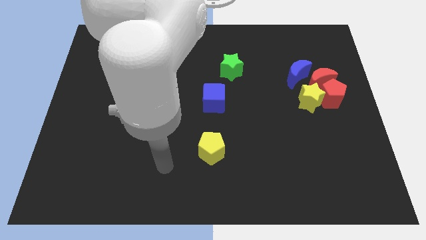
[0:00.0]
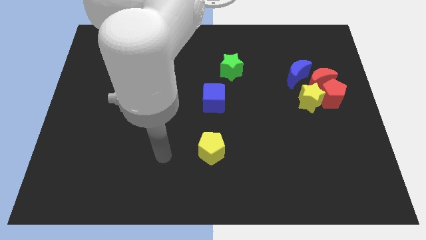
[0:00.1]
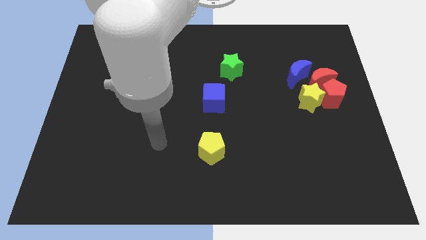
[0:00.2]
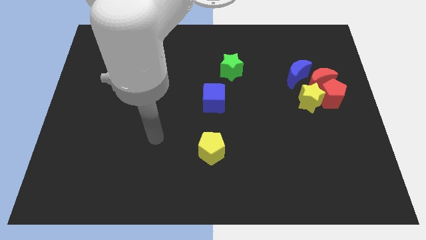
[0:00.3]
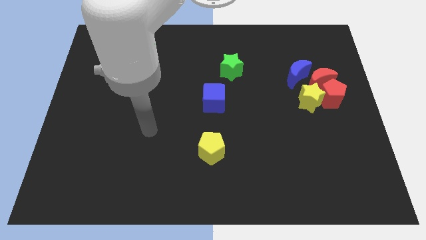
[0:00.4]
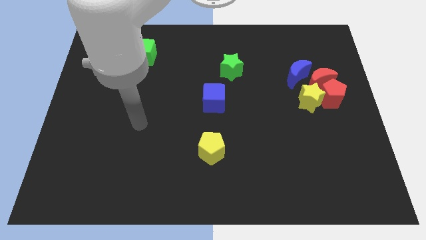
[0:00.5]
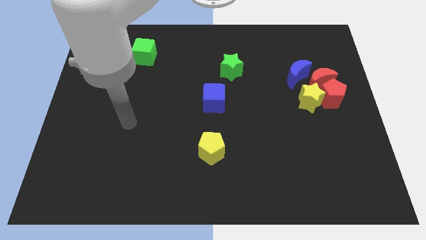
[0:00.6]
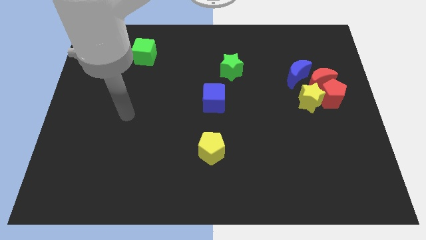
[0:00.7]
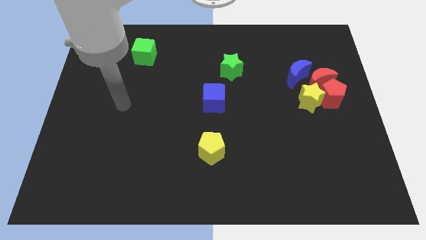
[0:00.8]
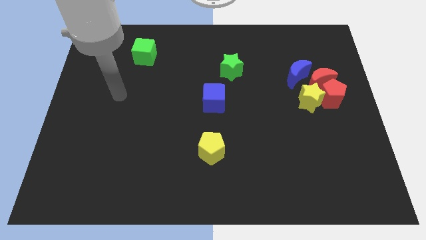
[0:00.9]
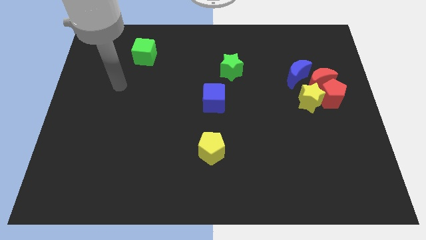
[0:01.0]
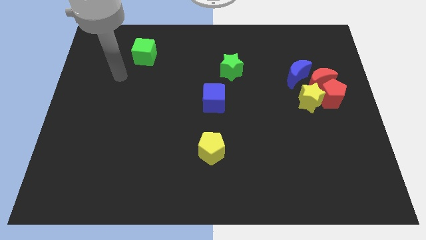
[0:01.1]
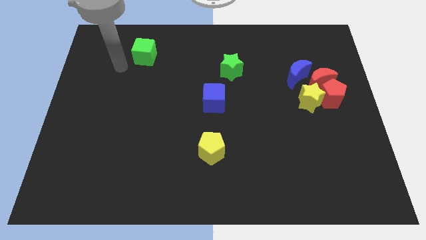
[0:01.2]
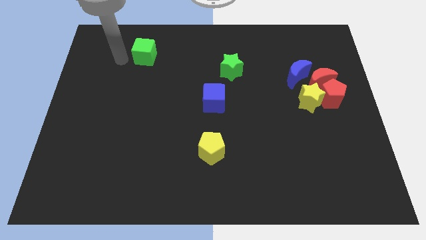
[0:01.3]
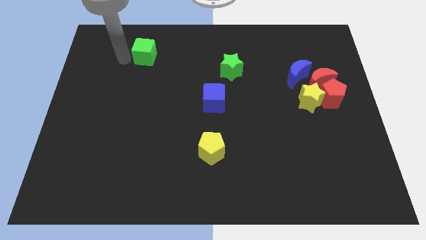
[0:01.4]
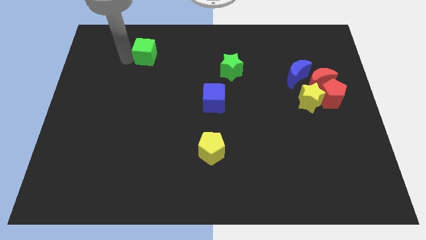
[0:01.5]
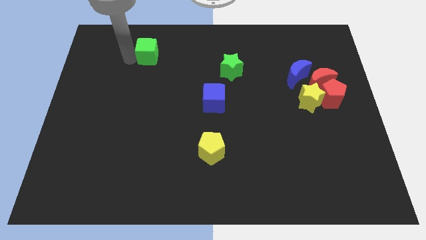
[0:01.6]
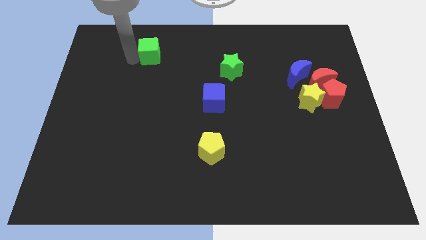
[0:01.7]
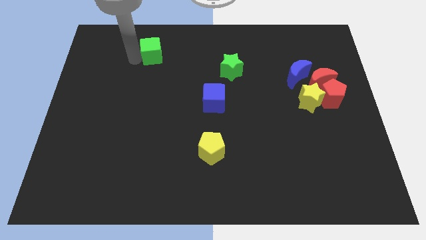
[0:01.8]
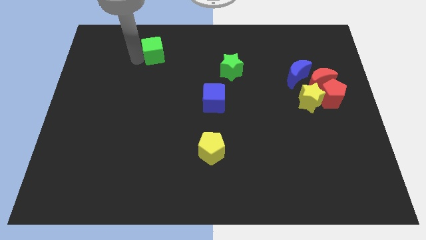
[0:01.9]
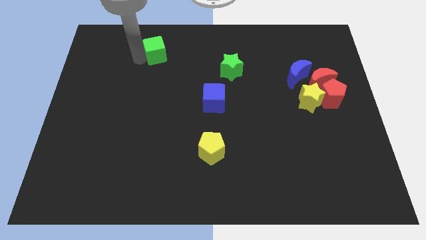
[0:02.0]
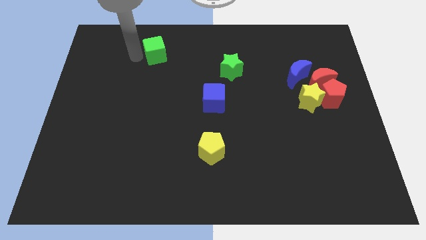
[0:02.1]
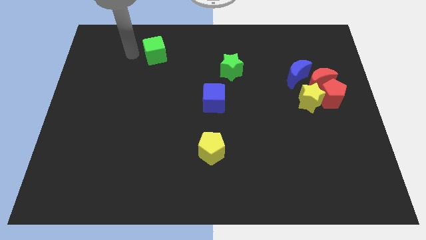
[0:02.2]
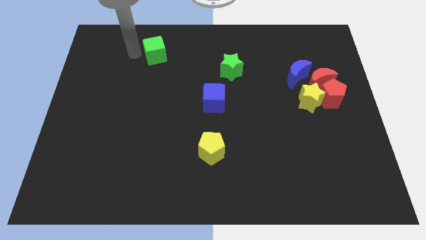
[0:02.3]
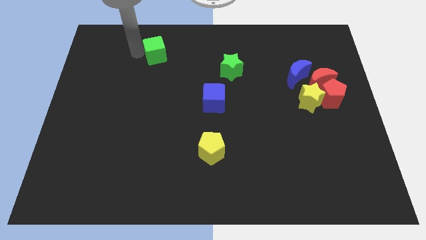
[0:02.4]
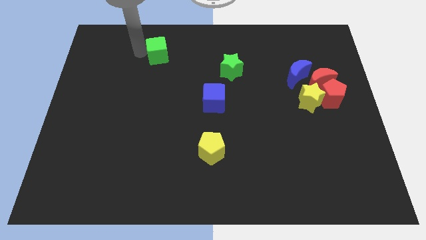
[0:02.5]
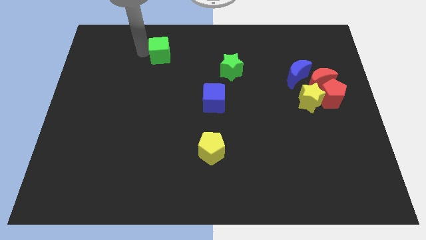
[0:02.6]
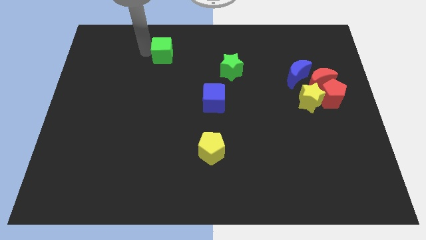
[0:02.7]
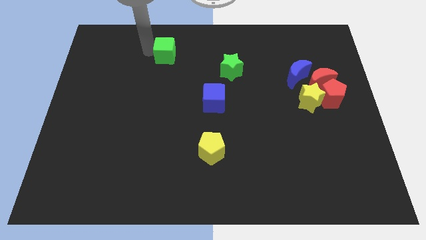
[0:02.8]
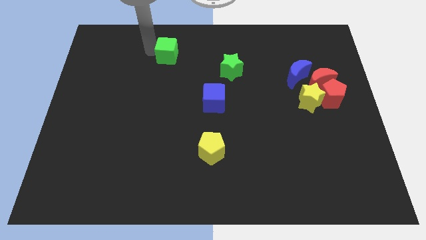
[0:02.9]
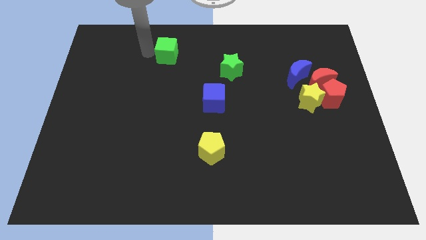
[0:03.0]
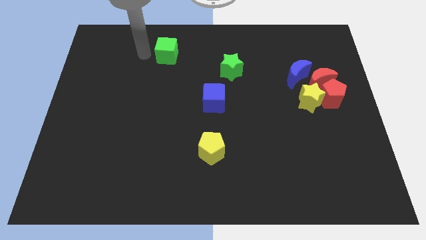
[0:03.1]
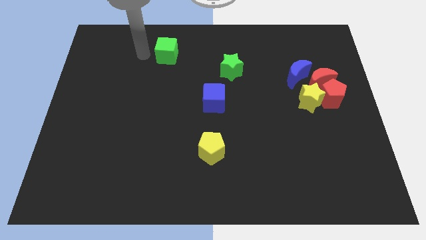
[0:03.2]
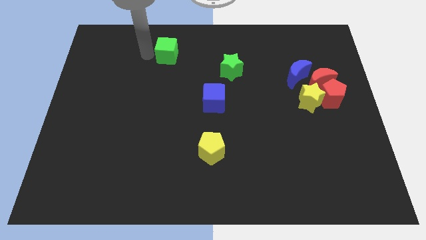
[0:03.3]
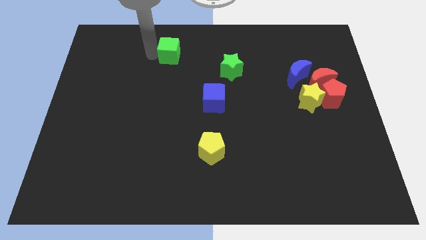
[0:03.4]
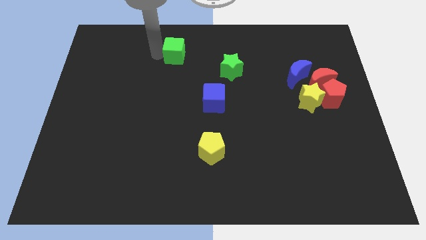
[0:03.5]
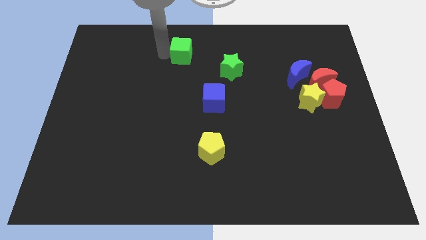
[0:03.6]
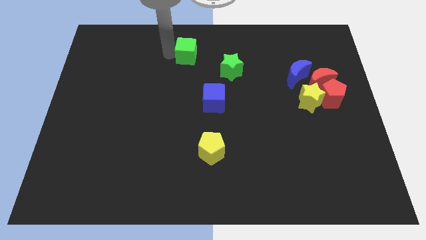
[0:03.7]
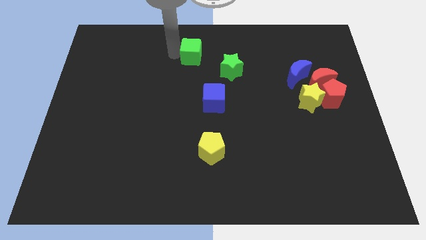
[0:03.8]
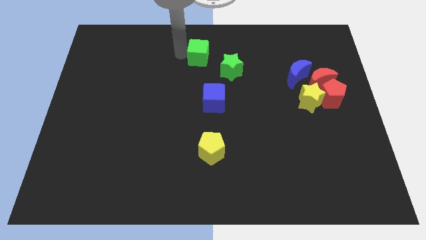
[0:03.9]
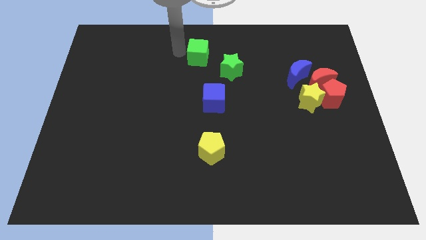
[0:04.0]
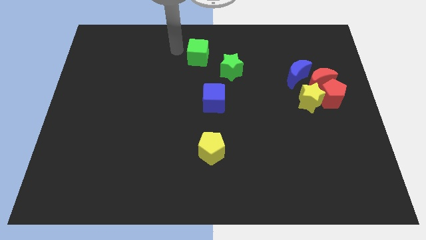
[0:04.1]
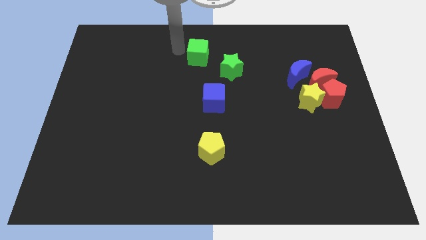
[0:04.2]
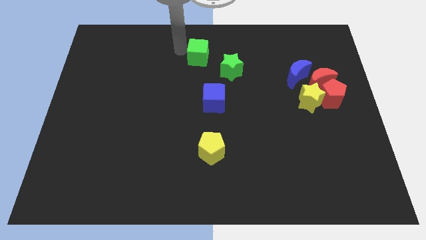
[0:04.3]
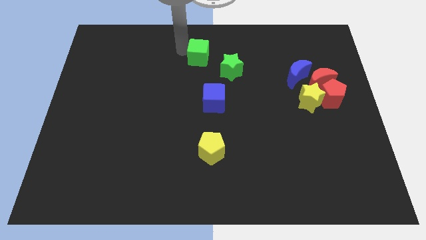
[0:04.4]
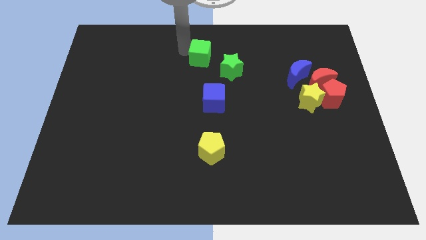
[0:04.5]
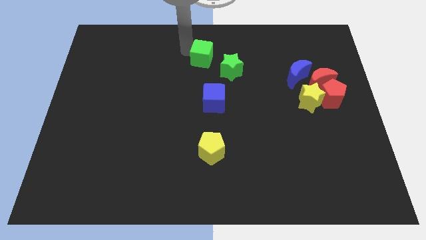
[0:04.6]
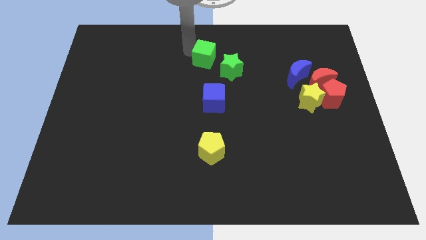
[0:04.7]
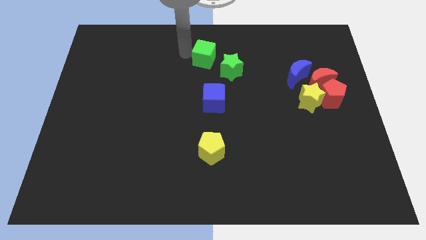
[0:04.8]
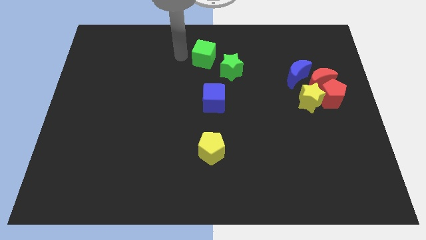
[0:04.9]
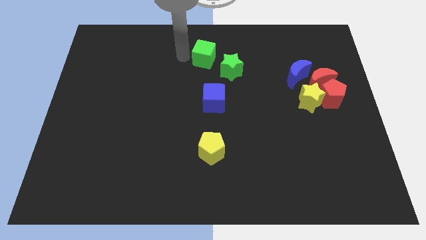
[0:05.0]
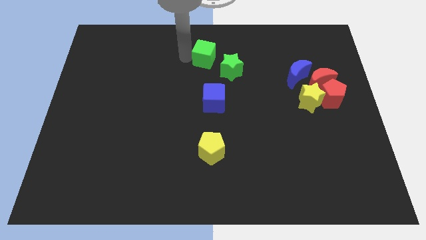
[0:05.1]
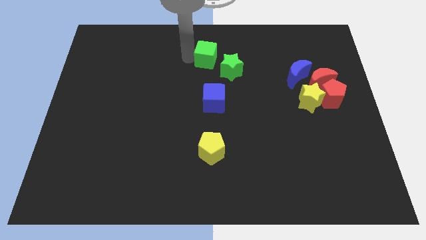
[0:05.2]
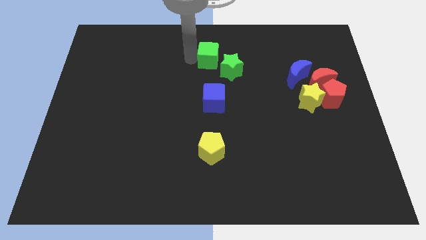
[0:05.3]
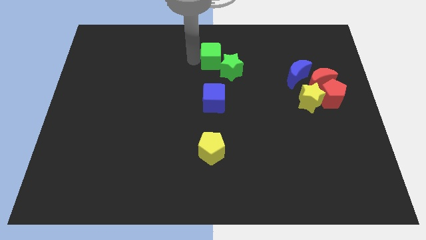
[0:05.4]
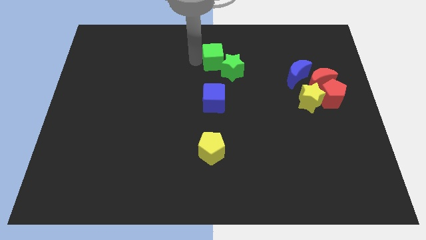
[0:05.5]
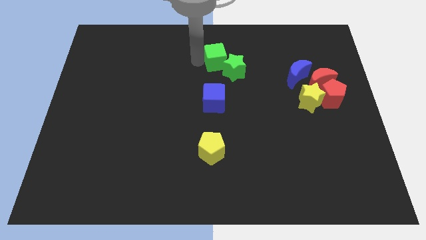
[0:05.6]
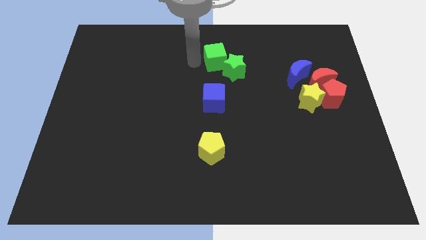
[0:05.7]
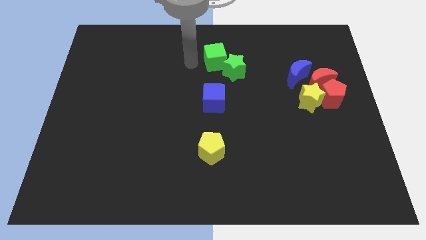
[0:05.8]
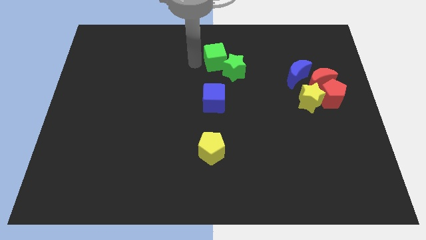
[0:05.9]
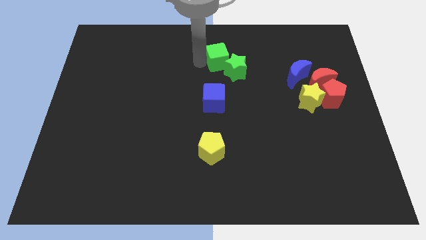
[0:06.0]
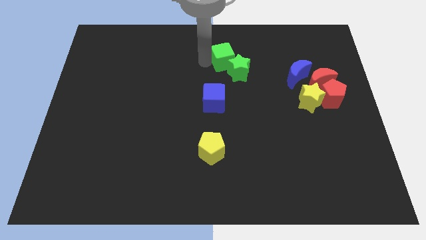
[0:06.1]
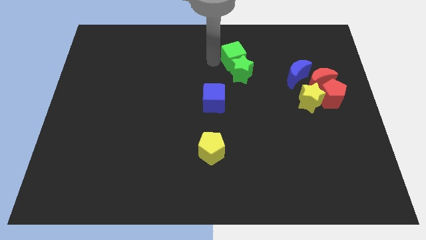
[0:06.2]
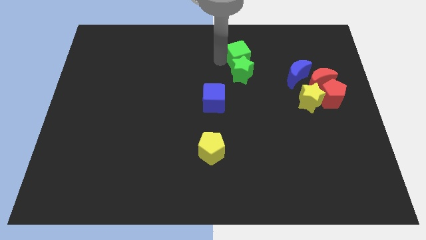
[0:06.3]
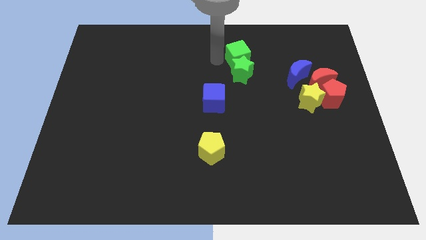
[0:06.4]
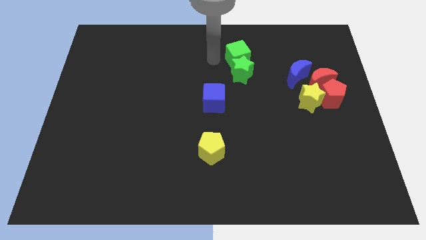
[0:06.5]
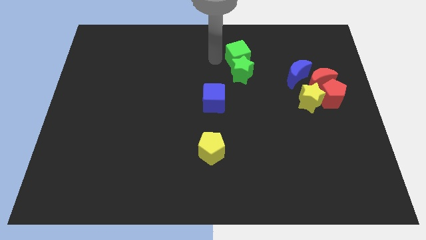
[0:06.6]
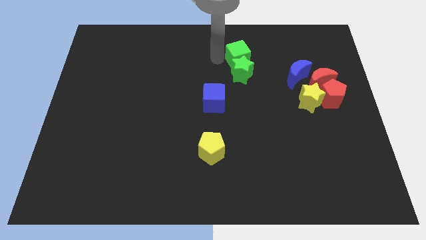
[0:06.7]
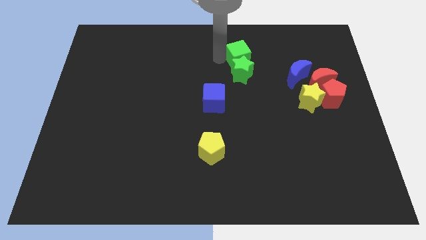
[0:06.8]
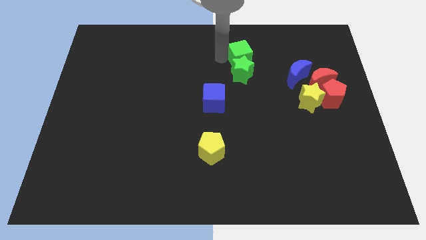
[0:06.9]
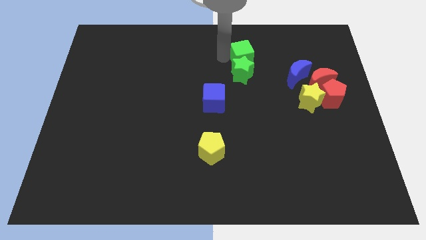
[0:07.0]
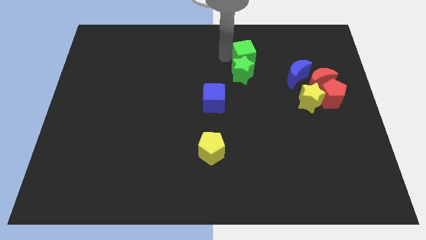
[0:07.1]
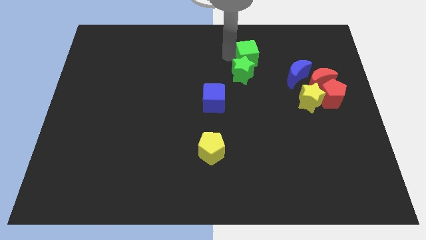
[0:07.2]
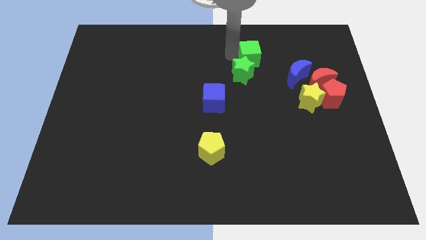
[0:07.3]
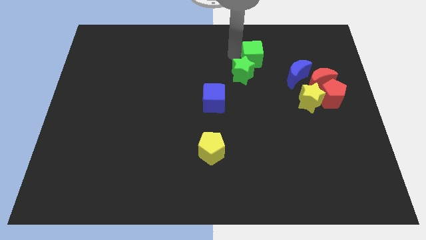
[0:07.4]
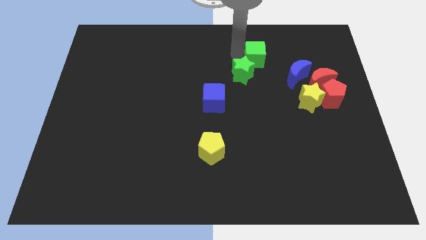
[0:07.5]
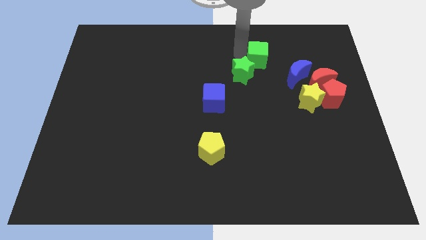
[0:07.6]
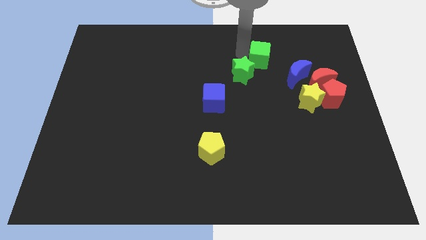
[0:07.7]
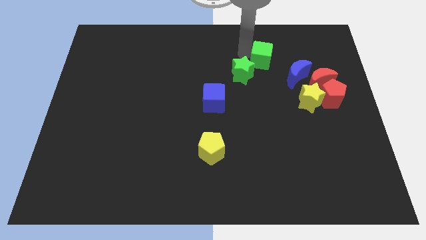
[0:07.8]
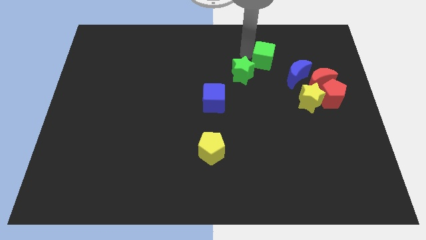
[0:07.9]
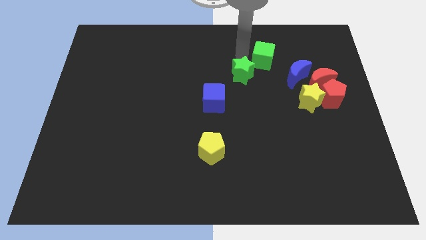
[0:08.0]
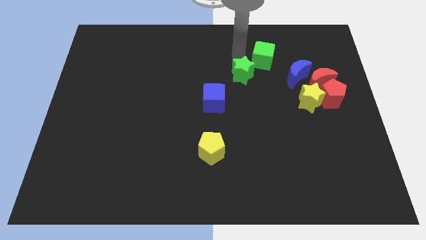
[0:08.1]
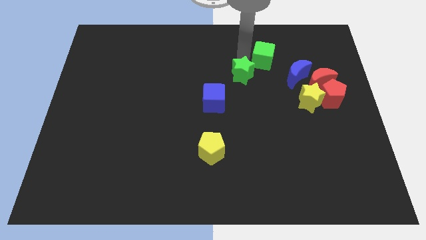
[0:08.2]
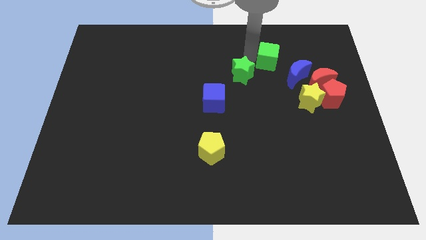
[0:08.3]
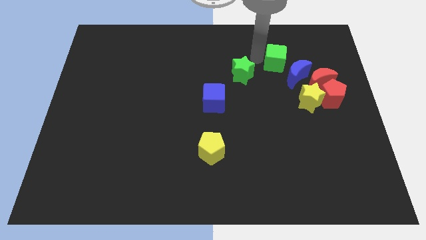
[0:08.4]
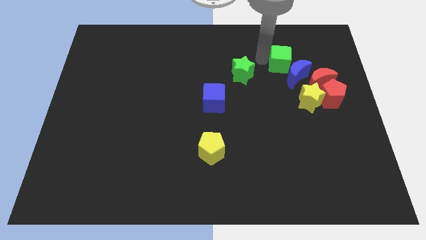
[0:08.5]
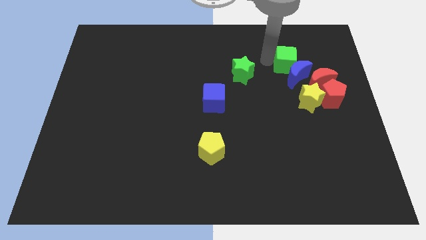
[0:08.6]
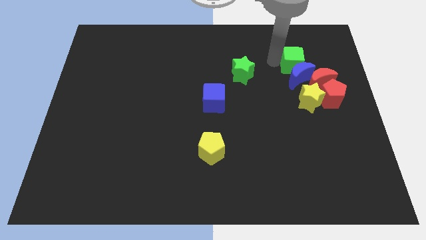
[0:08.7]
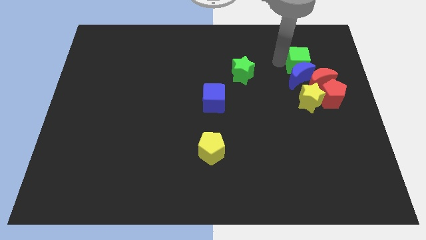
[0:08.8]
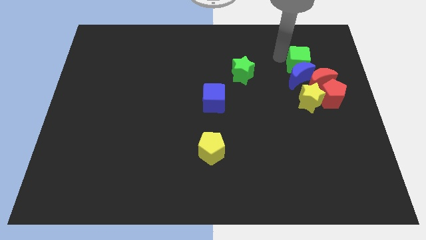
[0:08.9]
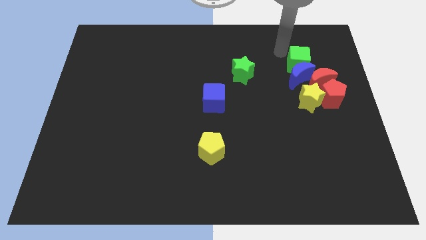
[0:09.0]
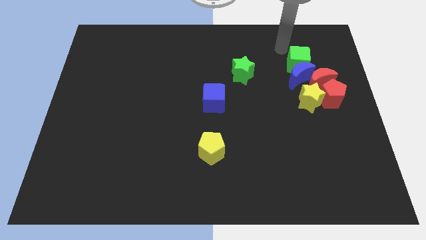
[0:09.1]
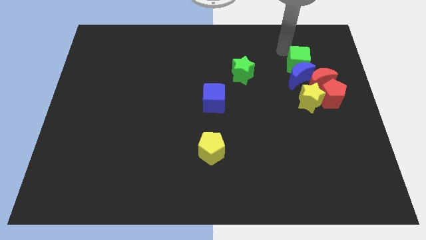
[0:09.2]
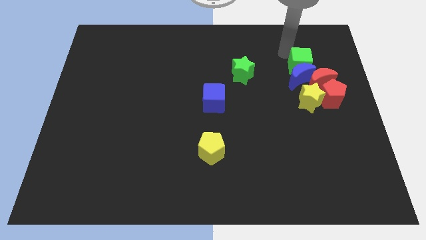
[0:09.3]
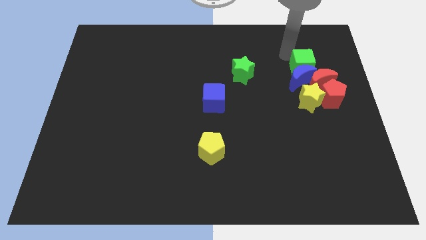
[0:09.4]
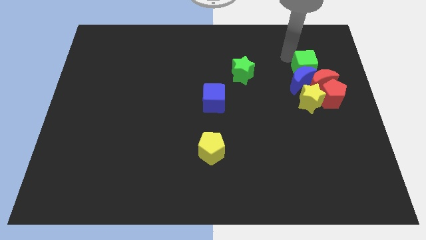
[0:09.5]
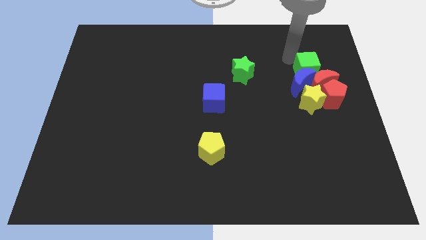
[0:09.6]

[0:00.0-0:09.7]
move the green cube close to the red moon
